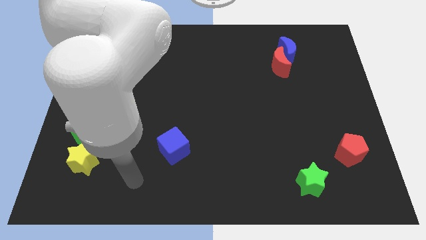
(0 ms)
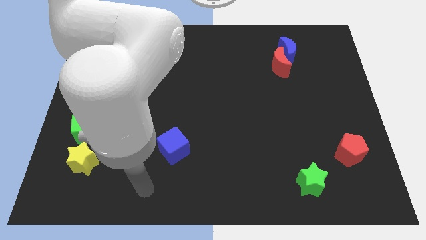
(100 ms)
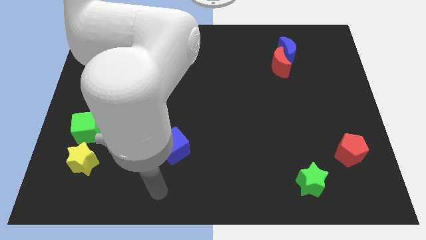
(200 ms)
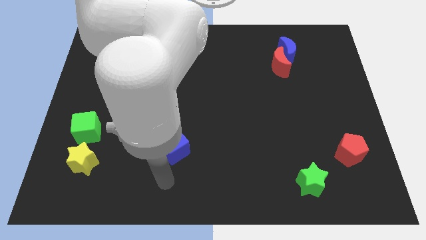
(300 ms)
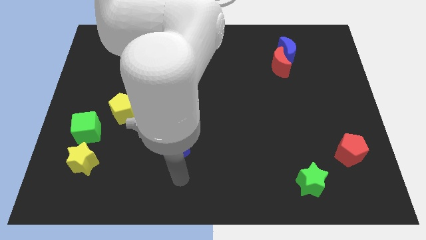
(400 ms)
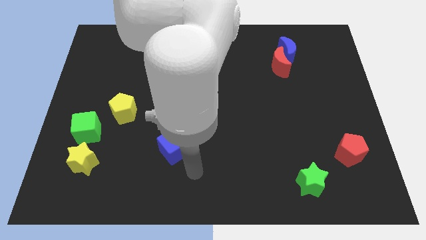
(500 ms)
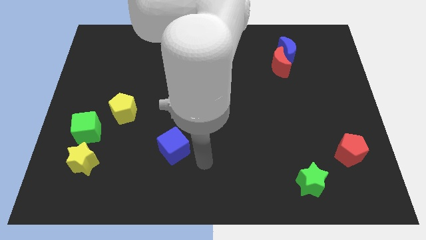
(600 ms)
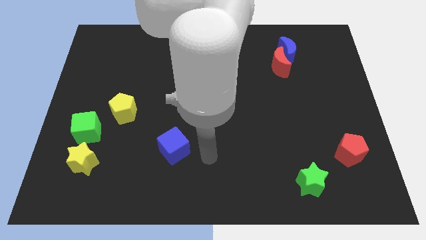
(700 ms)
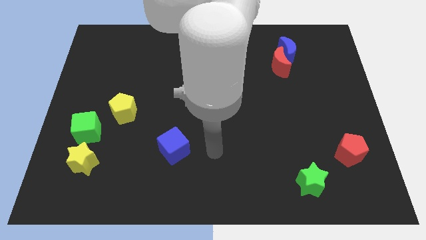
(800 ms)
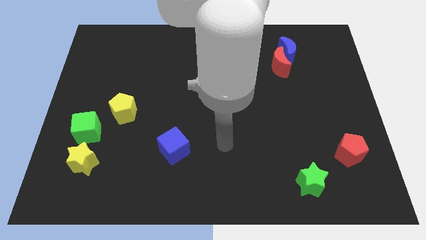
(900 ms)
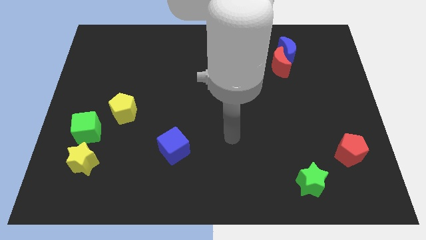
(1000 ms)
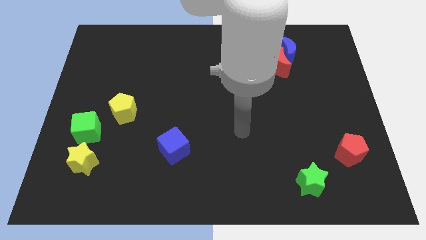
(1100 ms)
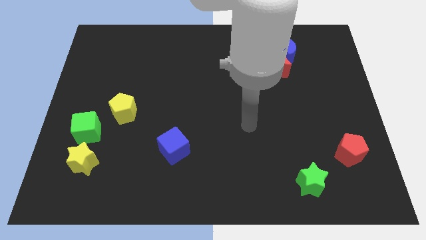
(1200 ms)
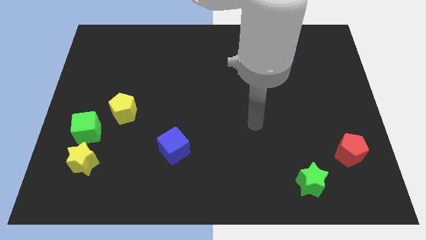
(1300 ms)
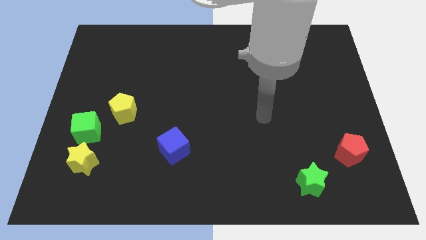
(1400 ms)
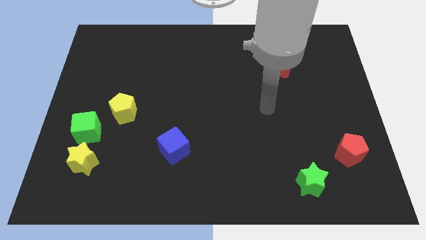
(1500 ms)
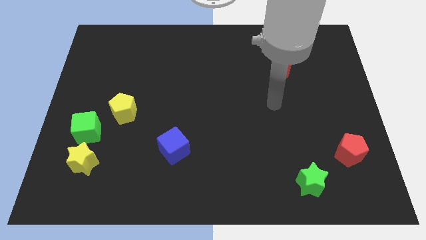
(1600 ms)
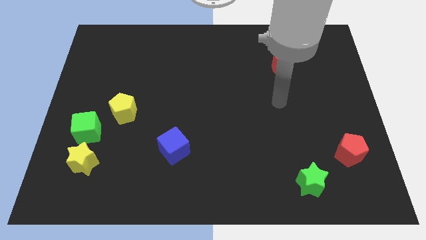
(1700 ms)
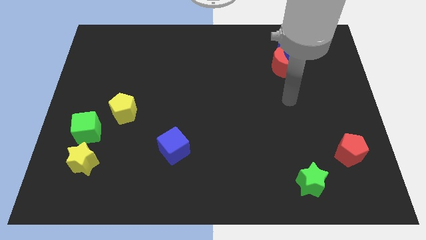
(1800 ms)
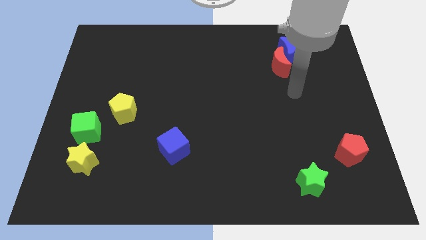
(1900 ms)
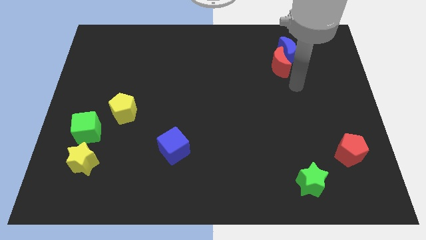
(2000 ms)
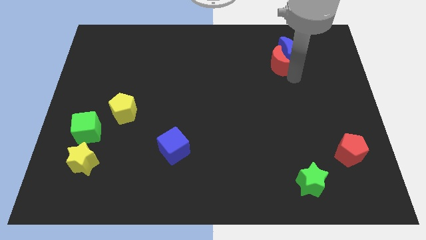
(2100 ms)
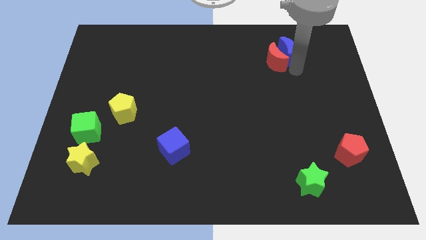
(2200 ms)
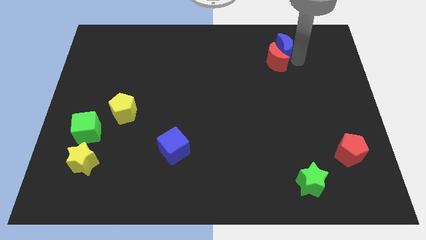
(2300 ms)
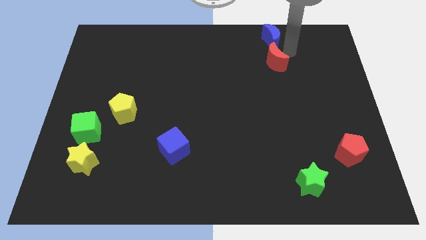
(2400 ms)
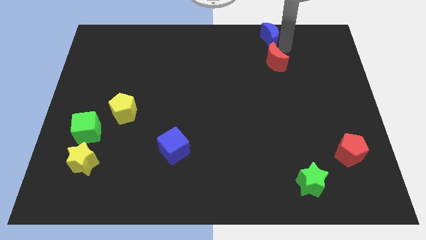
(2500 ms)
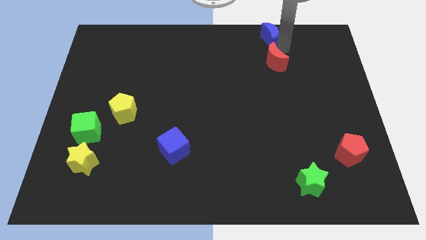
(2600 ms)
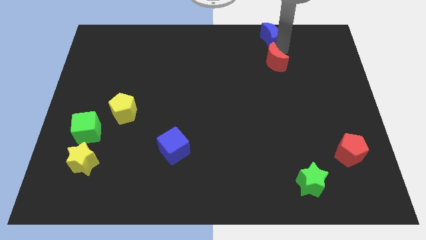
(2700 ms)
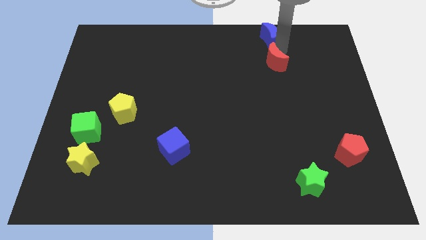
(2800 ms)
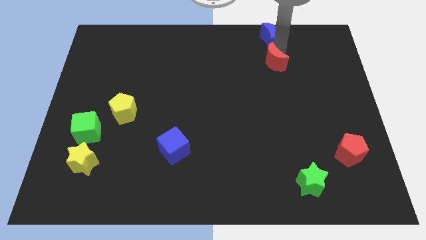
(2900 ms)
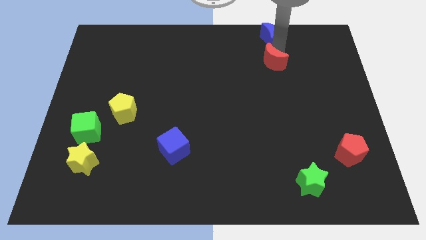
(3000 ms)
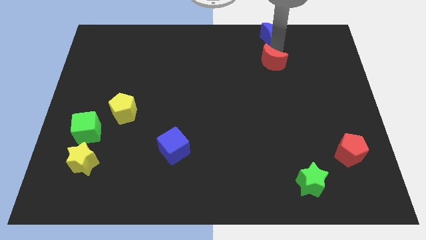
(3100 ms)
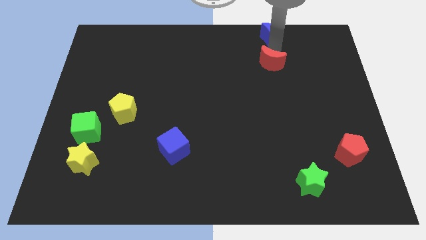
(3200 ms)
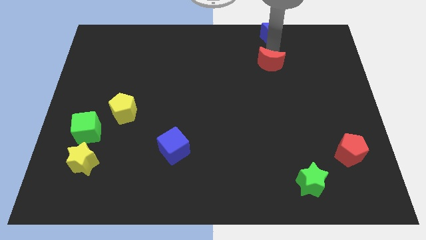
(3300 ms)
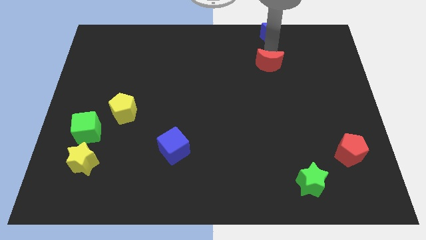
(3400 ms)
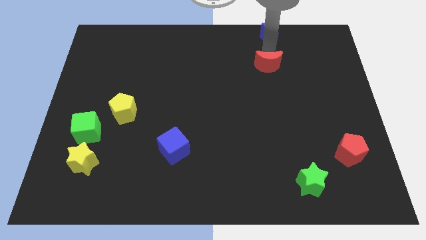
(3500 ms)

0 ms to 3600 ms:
separate the red moon from the blue moon

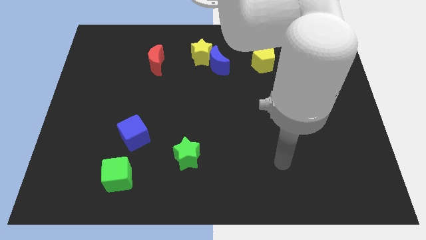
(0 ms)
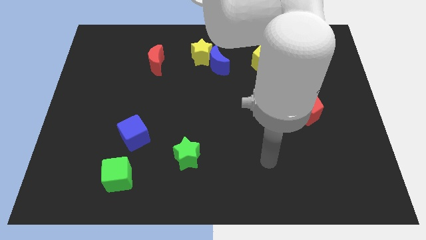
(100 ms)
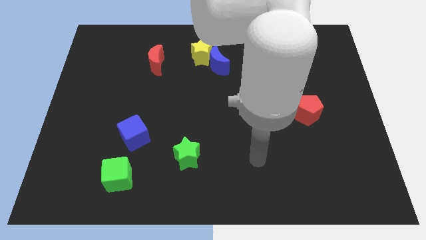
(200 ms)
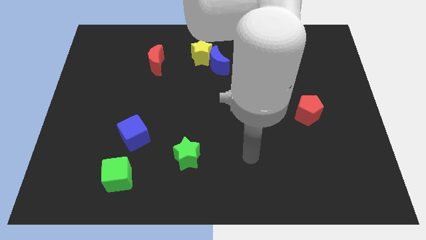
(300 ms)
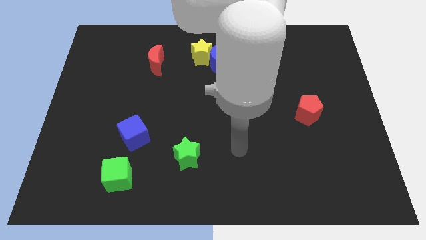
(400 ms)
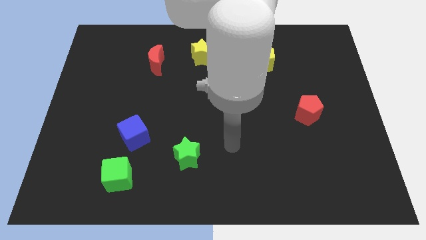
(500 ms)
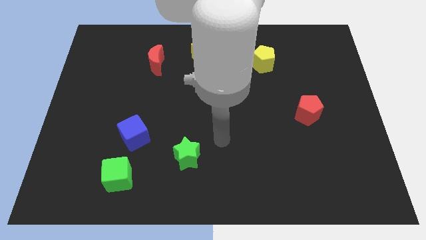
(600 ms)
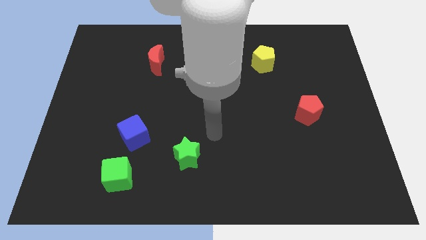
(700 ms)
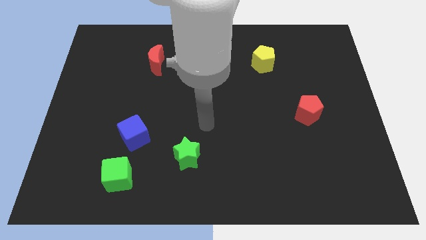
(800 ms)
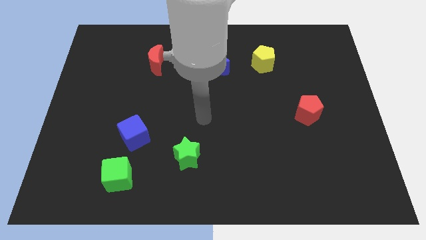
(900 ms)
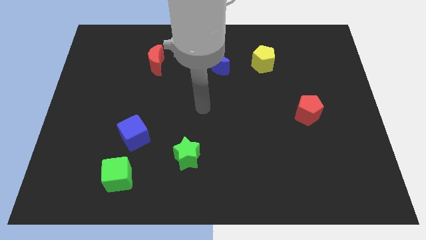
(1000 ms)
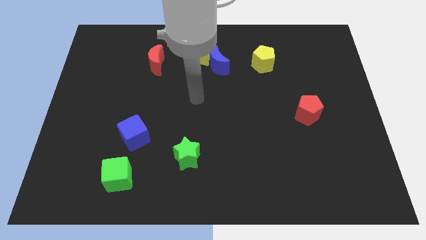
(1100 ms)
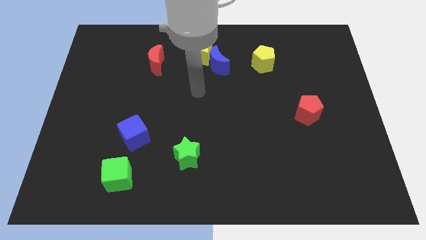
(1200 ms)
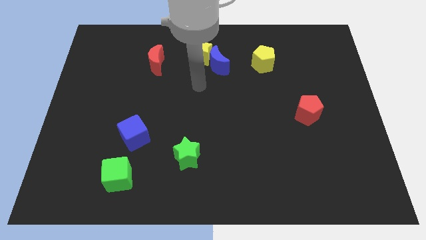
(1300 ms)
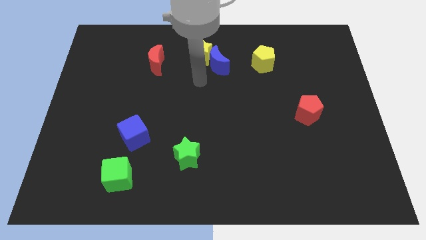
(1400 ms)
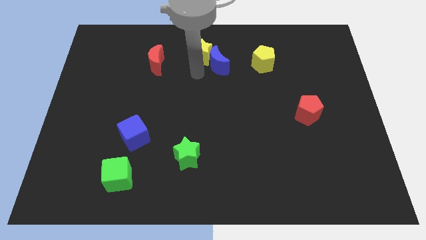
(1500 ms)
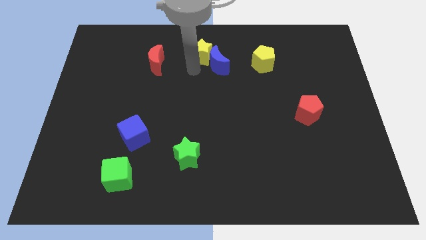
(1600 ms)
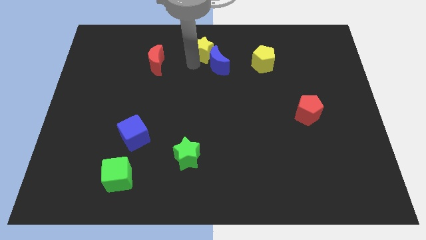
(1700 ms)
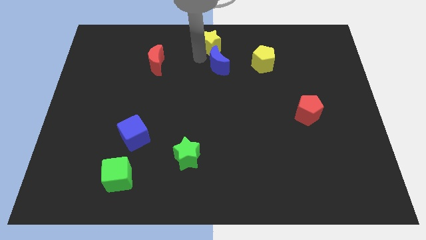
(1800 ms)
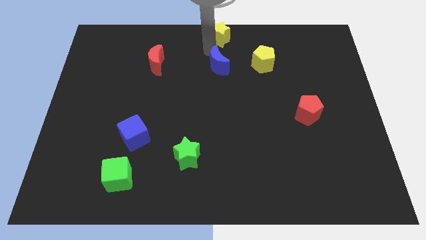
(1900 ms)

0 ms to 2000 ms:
separate the blue moon from the yellow star

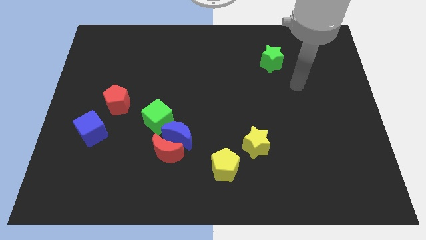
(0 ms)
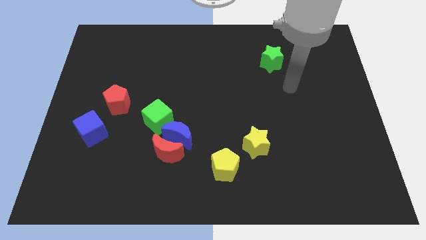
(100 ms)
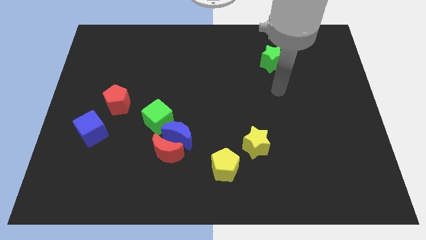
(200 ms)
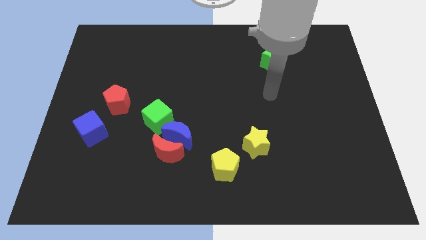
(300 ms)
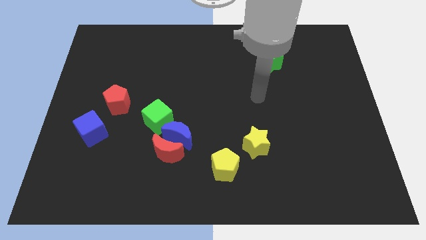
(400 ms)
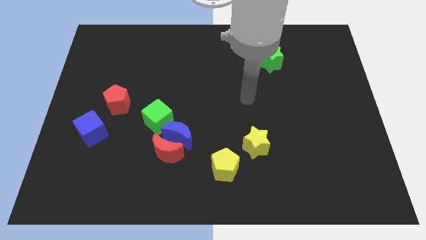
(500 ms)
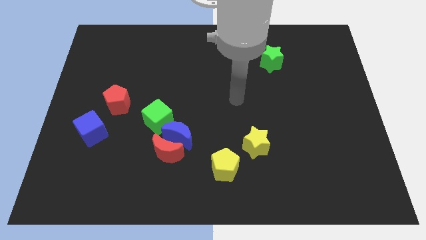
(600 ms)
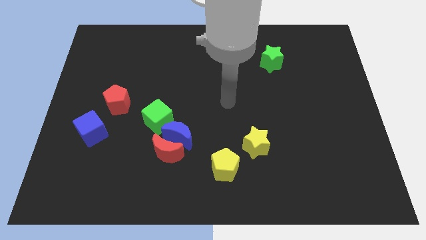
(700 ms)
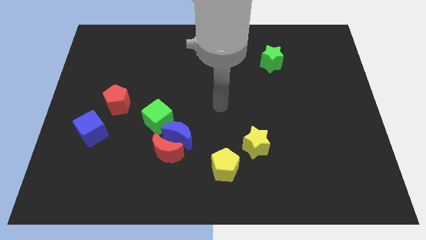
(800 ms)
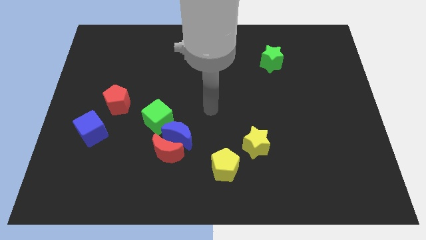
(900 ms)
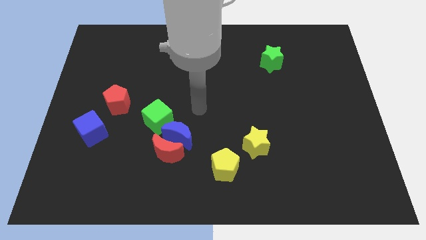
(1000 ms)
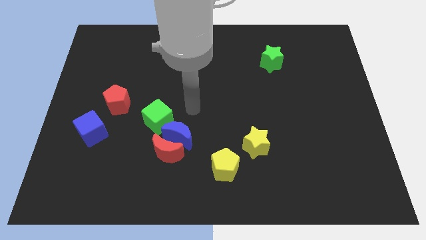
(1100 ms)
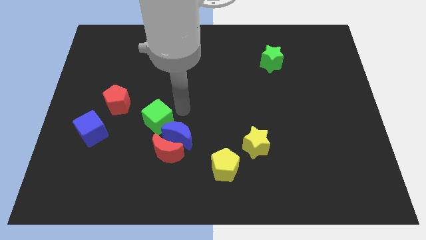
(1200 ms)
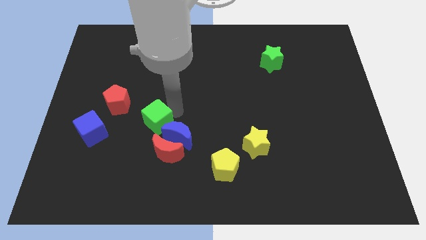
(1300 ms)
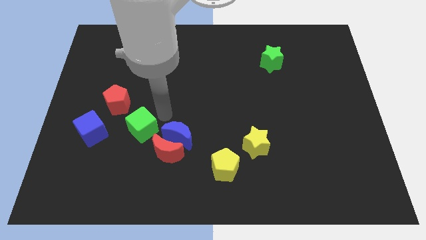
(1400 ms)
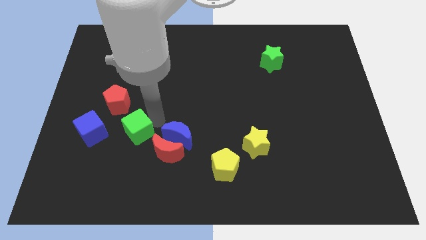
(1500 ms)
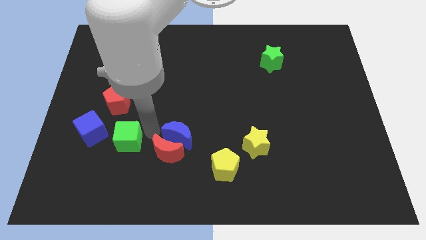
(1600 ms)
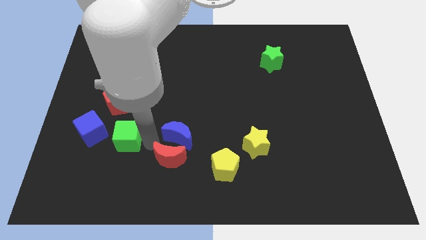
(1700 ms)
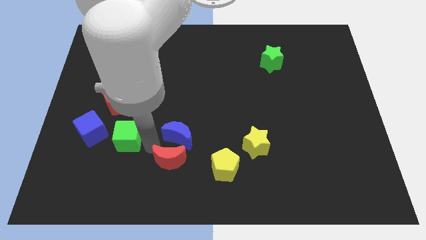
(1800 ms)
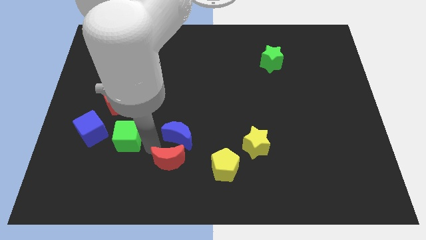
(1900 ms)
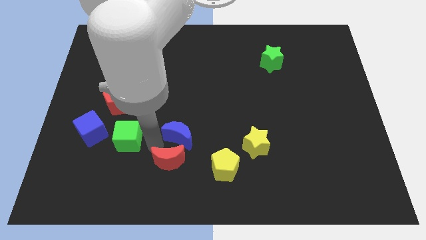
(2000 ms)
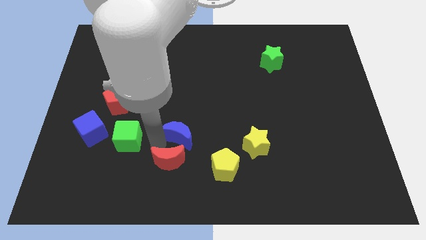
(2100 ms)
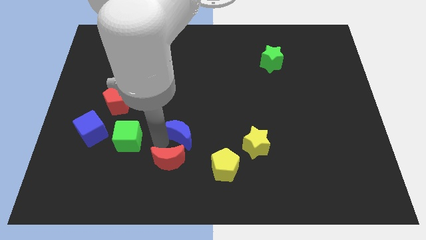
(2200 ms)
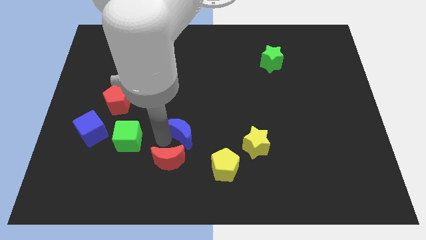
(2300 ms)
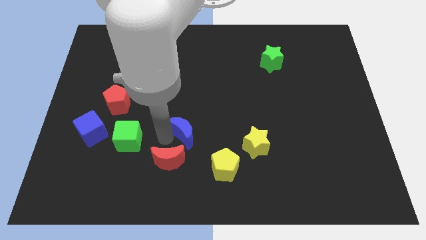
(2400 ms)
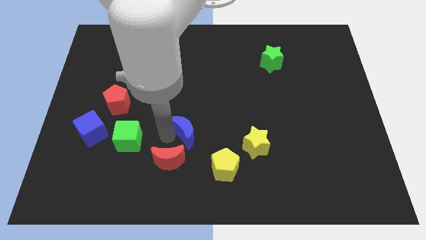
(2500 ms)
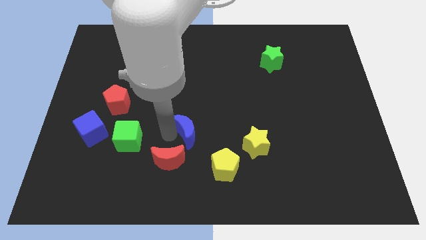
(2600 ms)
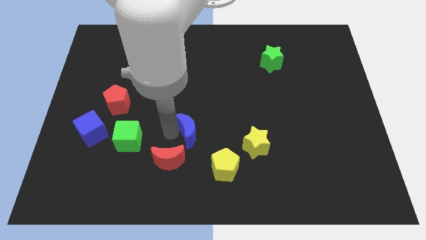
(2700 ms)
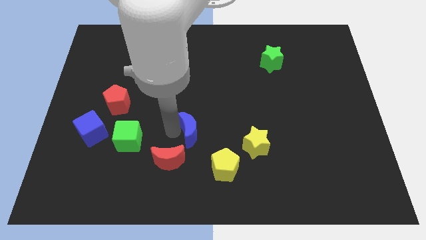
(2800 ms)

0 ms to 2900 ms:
move the blue moon away from the red moon and green cube

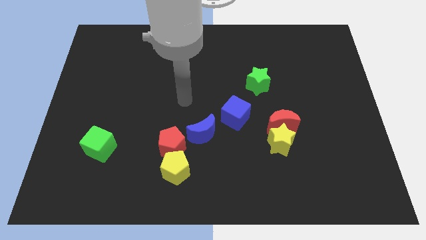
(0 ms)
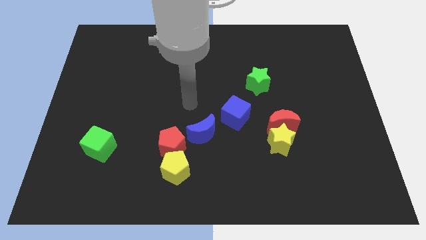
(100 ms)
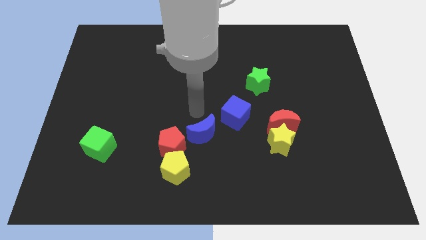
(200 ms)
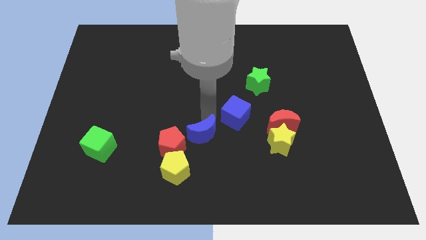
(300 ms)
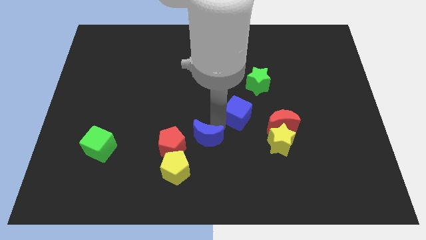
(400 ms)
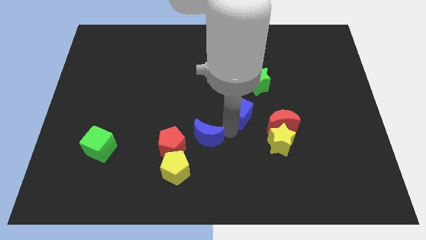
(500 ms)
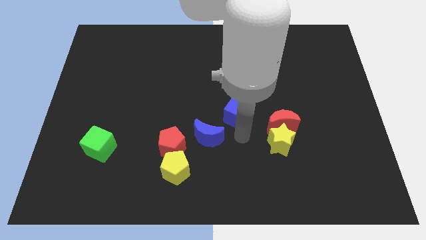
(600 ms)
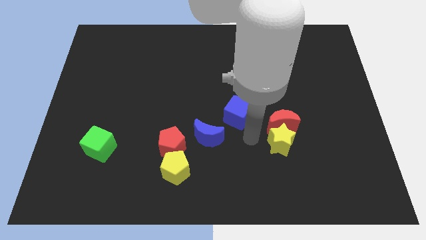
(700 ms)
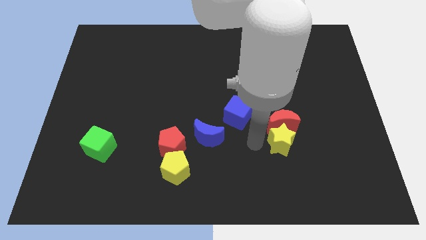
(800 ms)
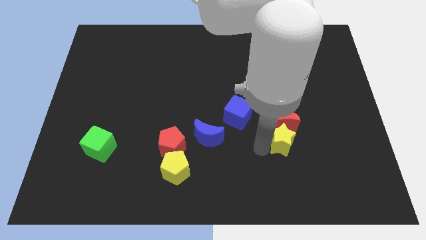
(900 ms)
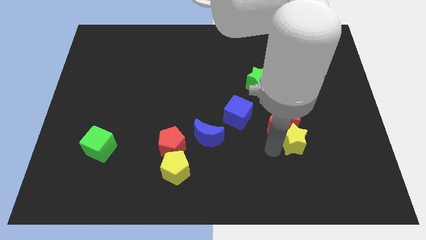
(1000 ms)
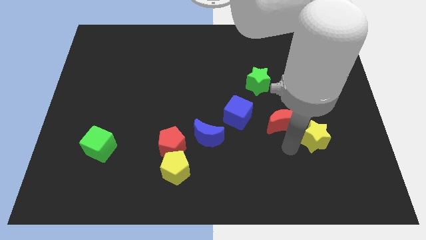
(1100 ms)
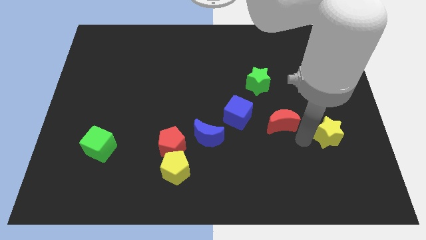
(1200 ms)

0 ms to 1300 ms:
separate the red moon from the yellow star
